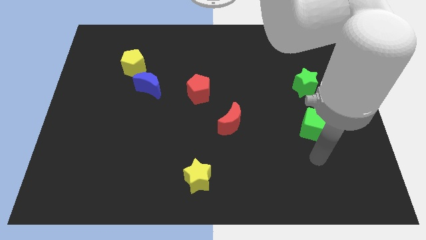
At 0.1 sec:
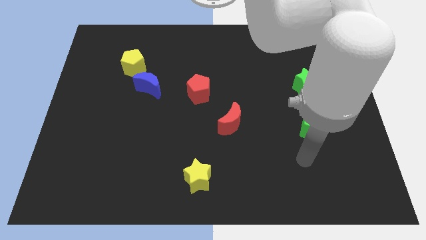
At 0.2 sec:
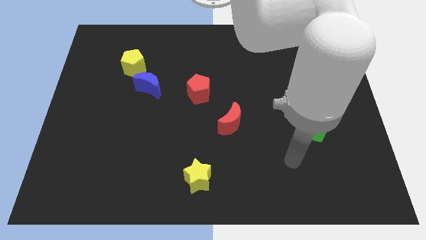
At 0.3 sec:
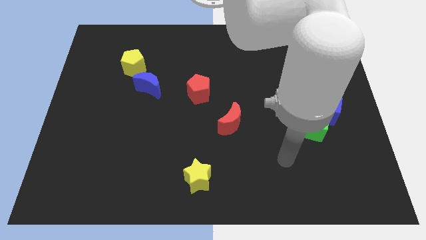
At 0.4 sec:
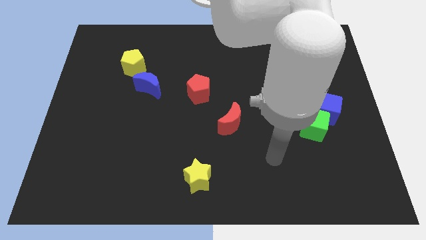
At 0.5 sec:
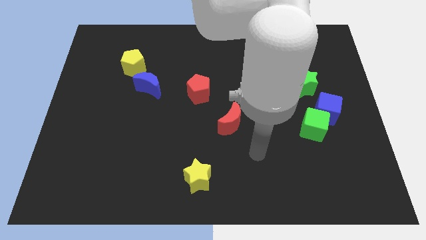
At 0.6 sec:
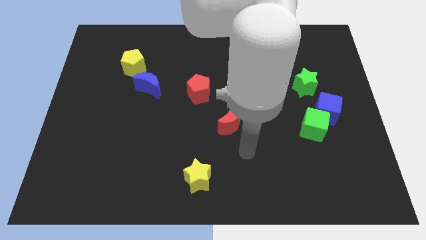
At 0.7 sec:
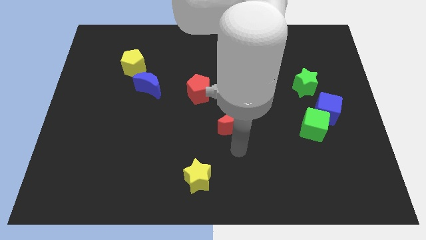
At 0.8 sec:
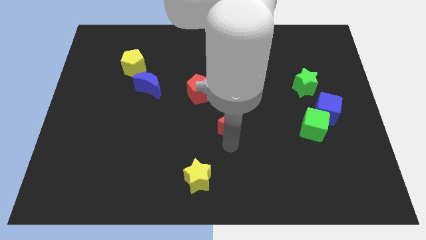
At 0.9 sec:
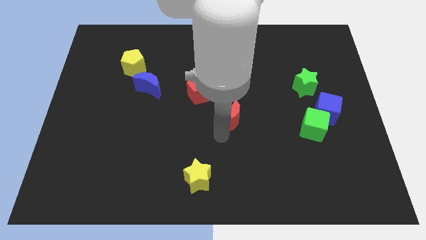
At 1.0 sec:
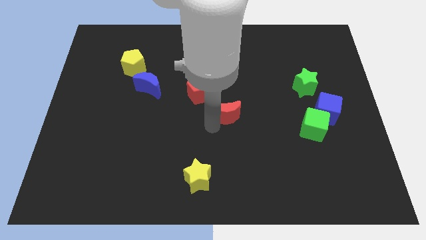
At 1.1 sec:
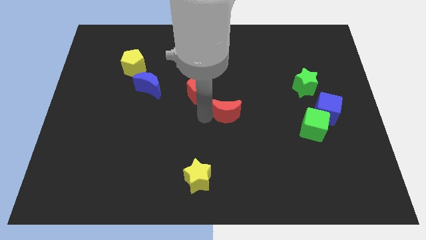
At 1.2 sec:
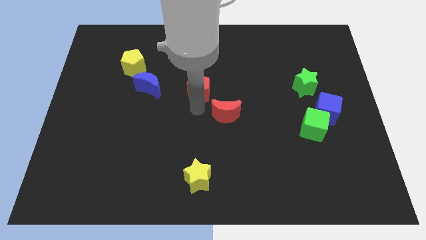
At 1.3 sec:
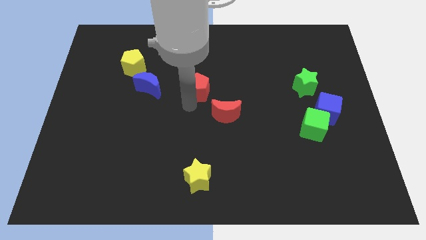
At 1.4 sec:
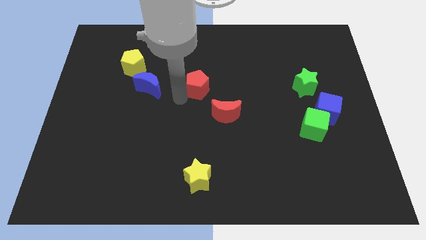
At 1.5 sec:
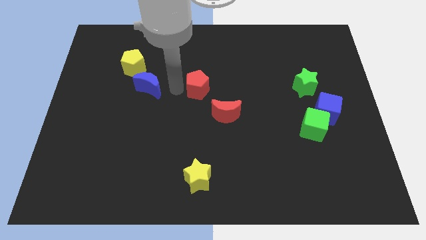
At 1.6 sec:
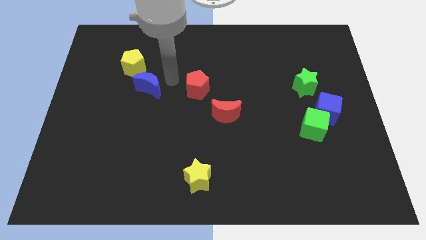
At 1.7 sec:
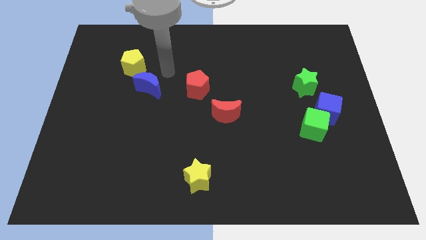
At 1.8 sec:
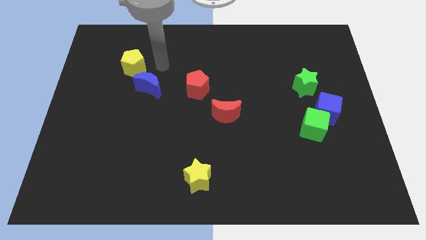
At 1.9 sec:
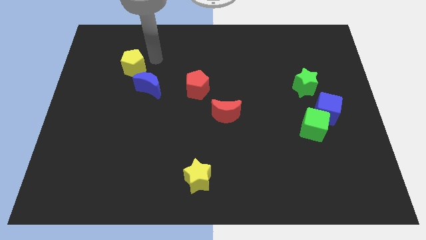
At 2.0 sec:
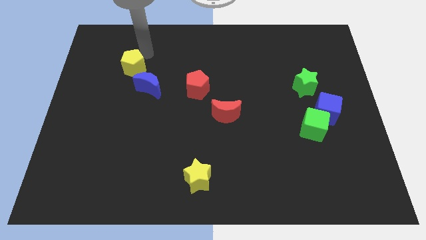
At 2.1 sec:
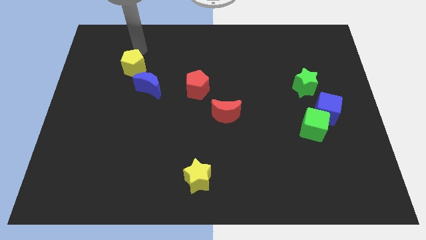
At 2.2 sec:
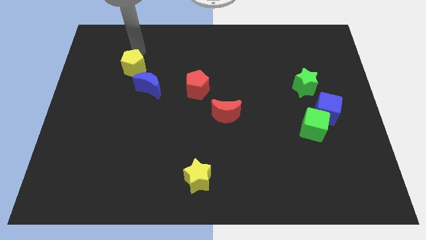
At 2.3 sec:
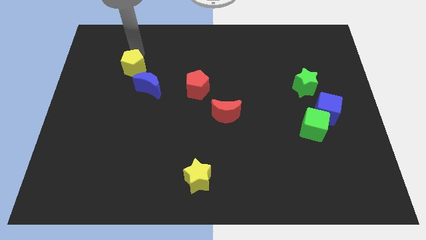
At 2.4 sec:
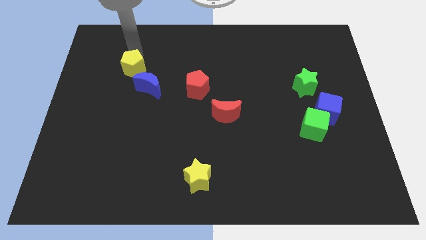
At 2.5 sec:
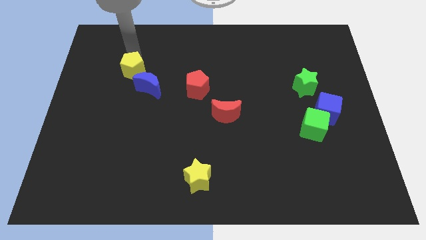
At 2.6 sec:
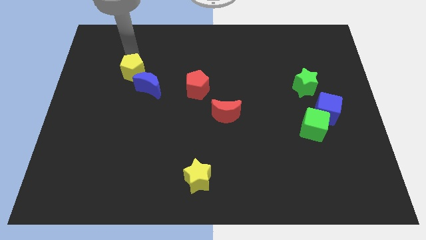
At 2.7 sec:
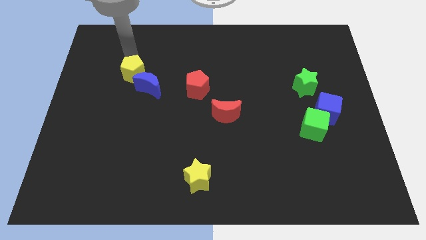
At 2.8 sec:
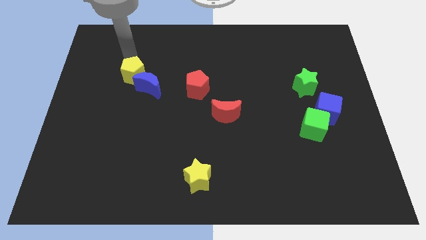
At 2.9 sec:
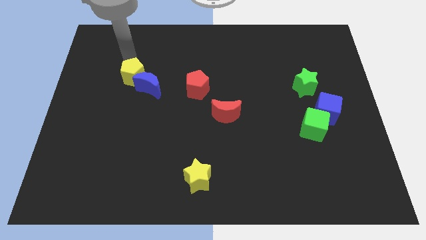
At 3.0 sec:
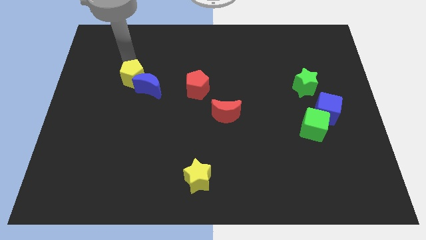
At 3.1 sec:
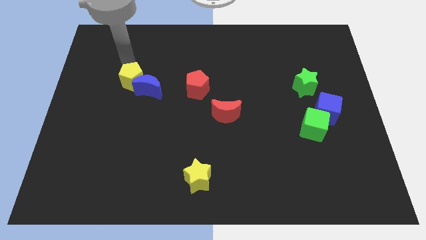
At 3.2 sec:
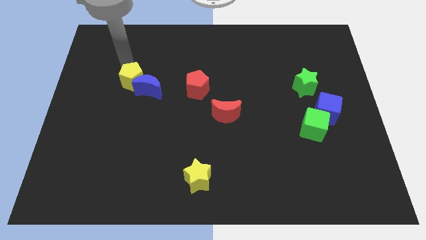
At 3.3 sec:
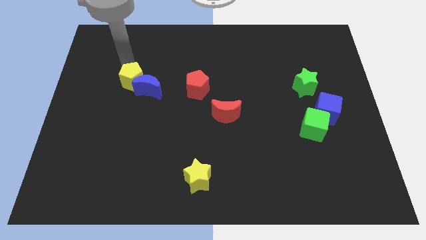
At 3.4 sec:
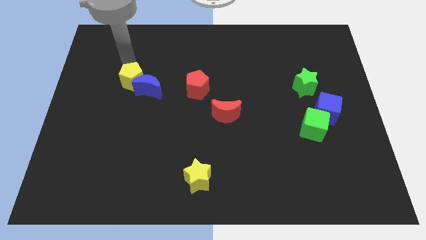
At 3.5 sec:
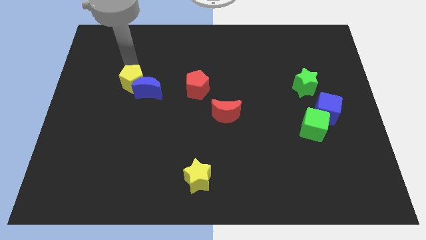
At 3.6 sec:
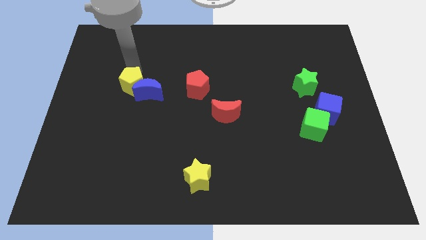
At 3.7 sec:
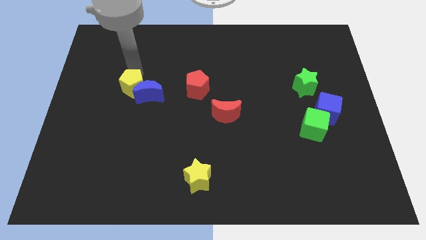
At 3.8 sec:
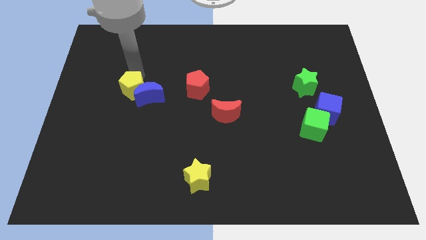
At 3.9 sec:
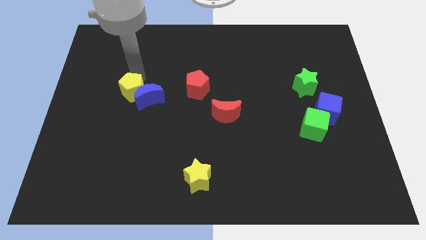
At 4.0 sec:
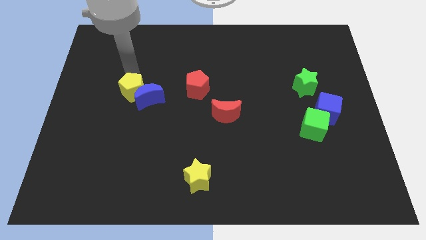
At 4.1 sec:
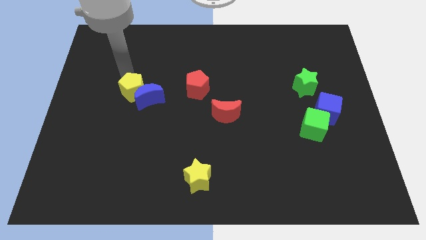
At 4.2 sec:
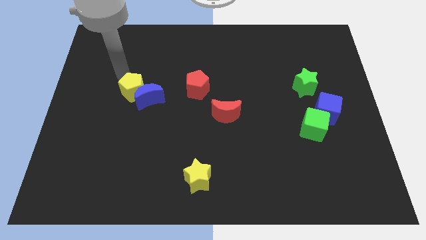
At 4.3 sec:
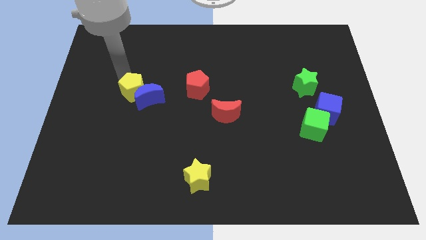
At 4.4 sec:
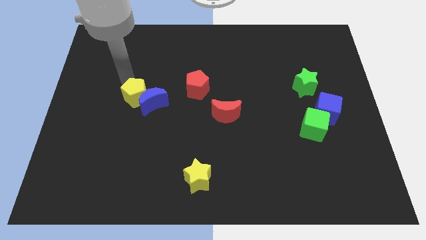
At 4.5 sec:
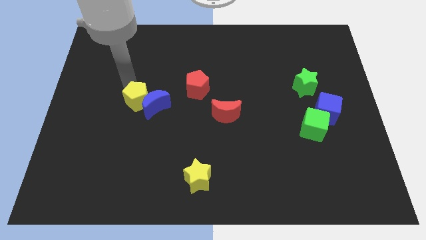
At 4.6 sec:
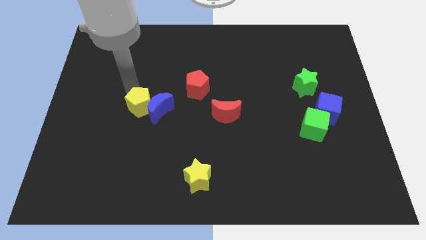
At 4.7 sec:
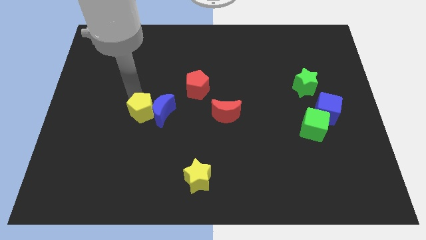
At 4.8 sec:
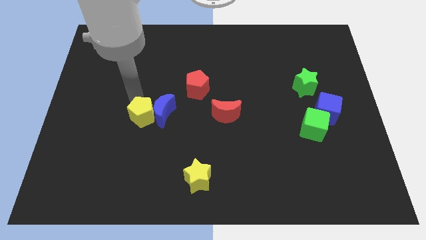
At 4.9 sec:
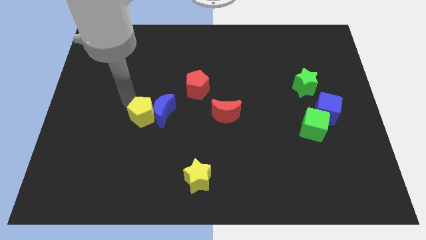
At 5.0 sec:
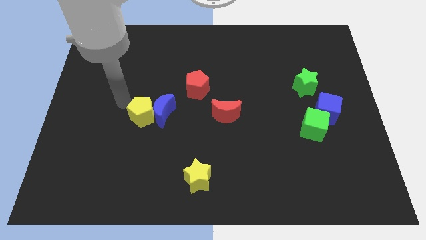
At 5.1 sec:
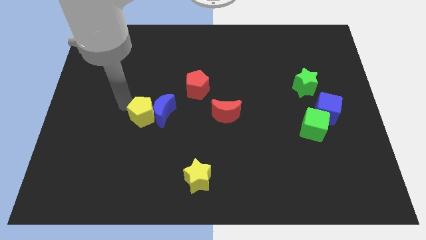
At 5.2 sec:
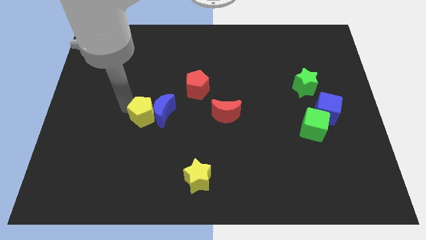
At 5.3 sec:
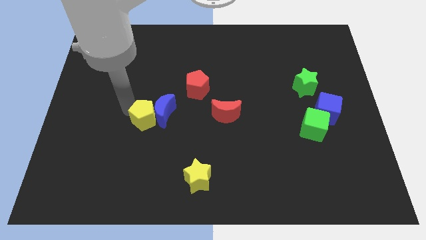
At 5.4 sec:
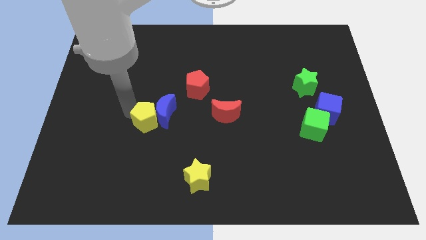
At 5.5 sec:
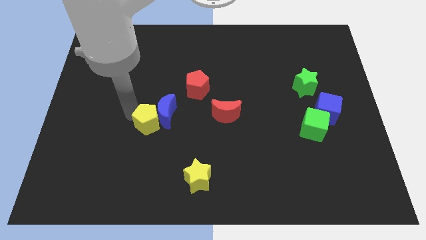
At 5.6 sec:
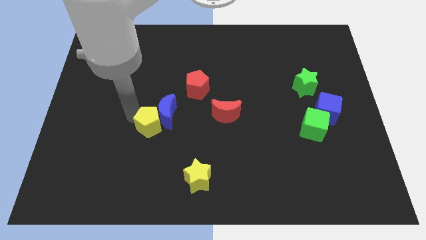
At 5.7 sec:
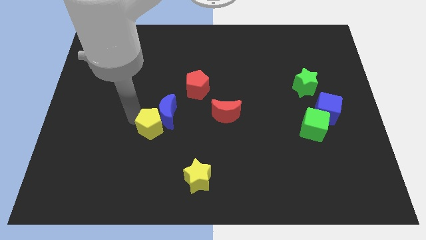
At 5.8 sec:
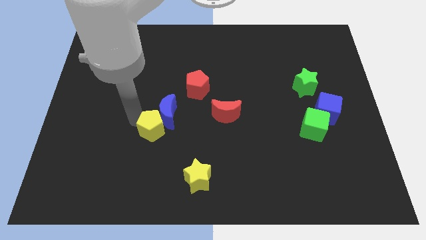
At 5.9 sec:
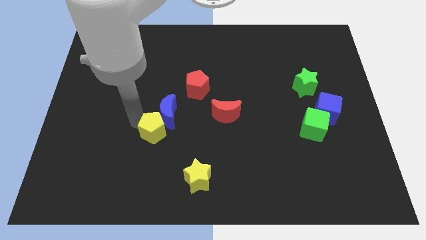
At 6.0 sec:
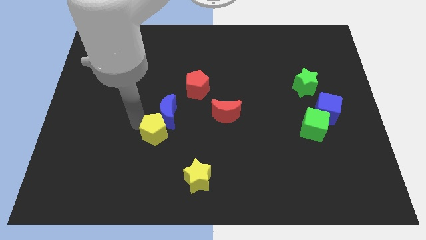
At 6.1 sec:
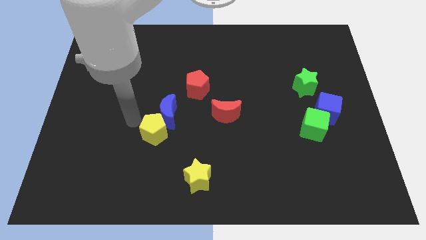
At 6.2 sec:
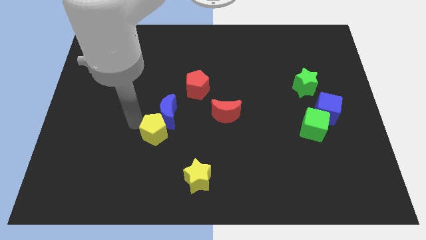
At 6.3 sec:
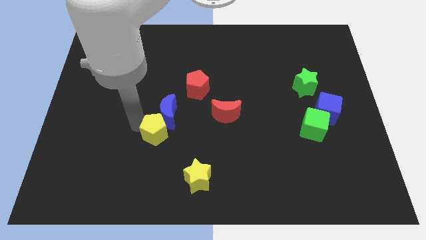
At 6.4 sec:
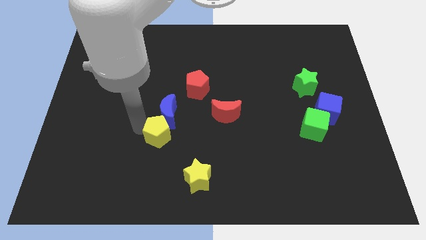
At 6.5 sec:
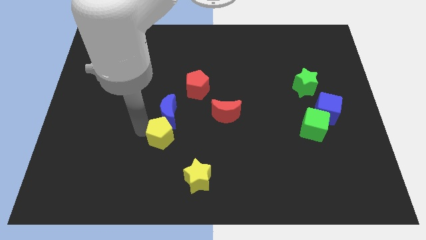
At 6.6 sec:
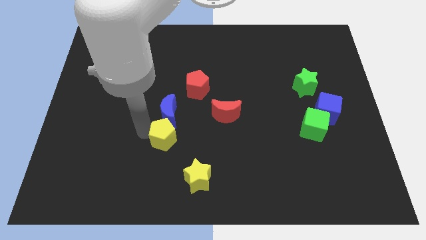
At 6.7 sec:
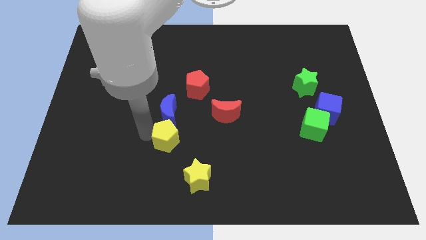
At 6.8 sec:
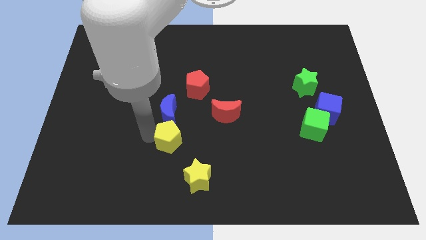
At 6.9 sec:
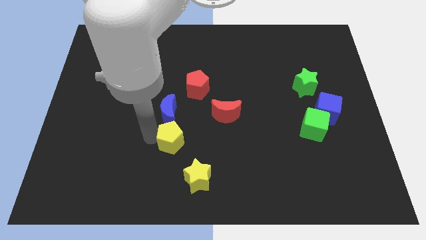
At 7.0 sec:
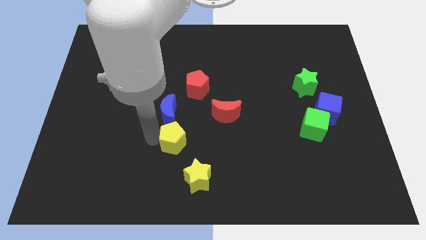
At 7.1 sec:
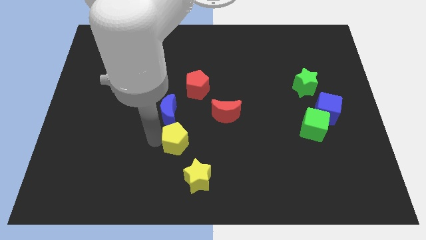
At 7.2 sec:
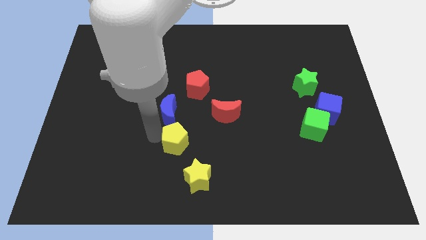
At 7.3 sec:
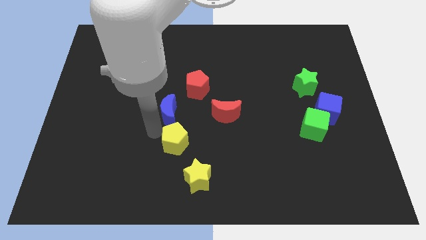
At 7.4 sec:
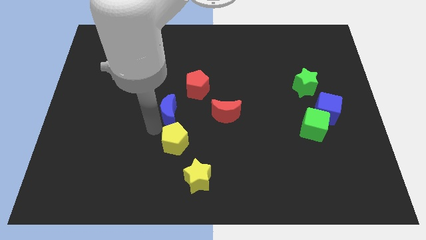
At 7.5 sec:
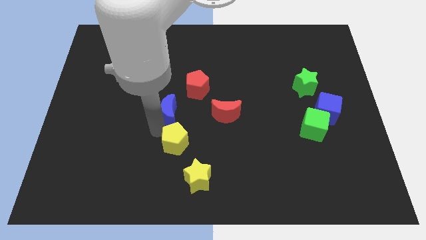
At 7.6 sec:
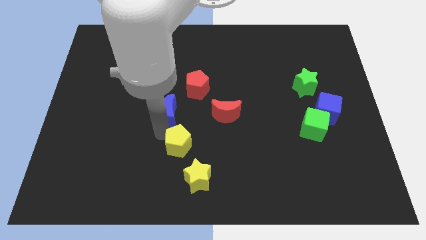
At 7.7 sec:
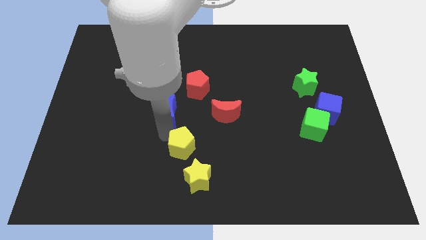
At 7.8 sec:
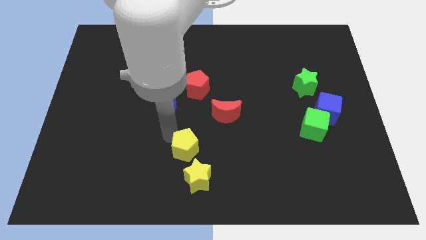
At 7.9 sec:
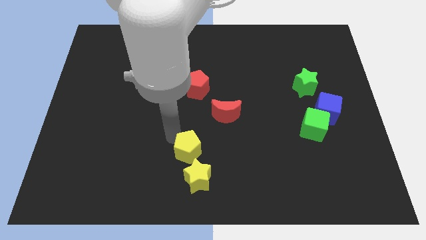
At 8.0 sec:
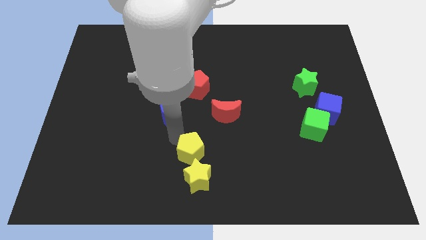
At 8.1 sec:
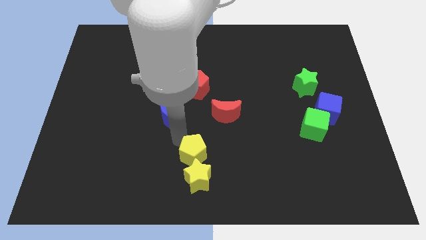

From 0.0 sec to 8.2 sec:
put the yellow pentagon next to the yellow star
